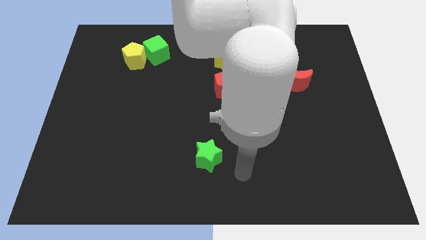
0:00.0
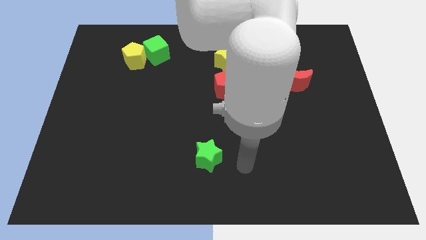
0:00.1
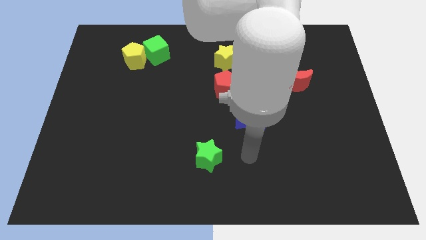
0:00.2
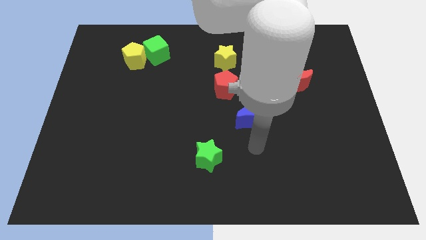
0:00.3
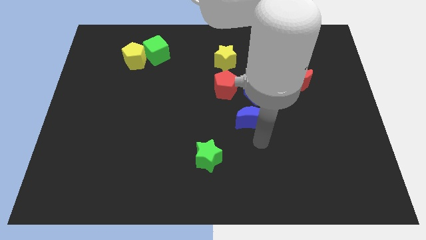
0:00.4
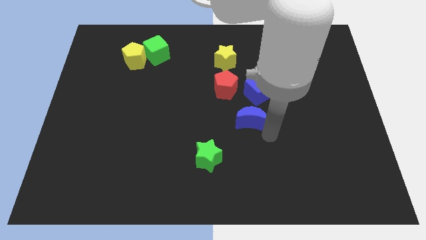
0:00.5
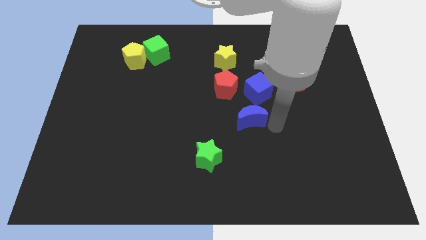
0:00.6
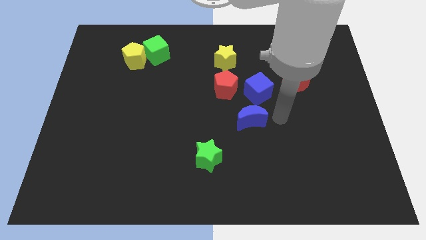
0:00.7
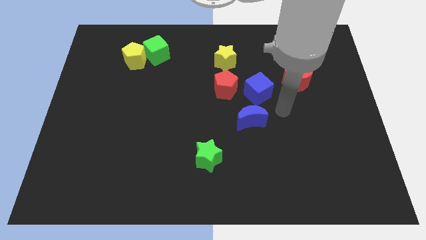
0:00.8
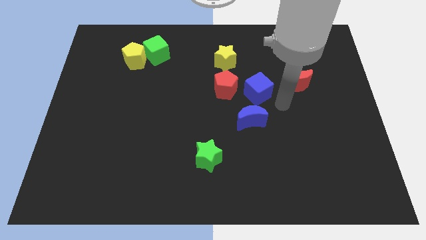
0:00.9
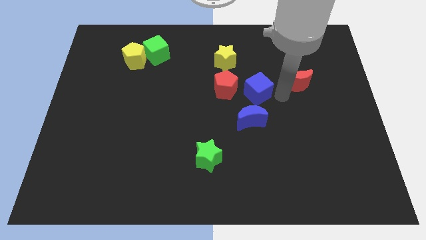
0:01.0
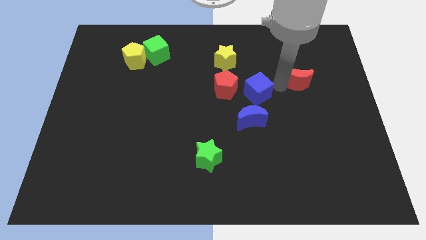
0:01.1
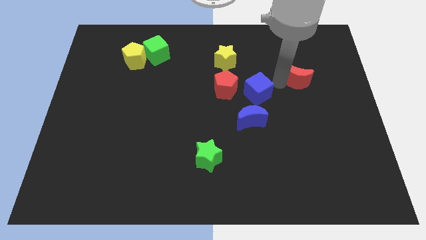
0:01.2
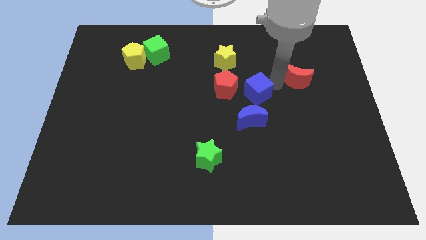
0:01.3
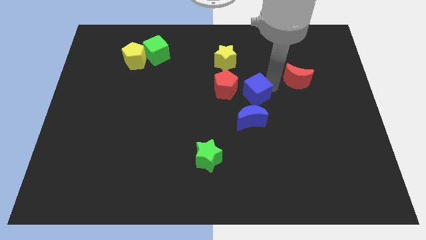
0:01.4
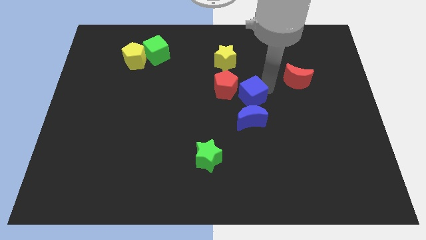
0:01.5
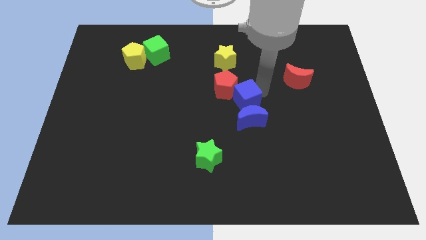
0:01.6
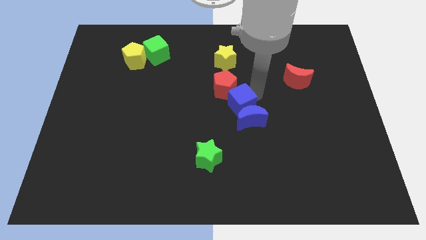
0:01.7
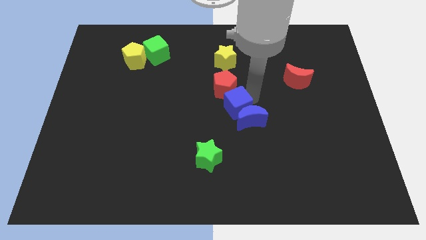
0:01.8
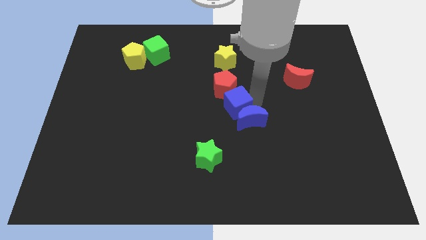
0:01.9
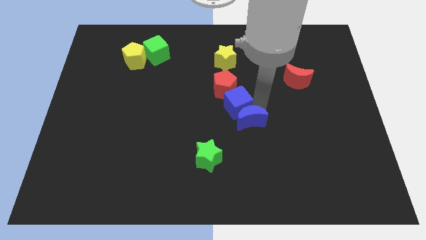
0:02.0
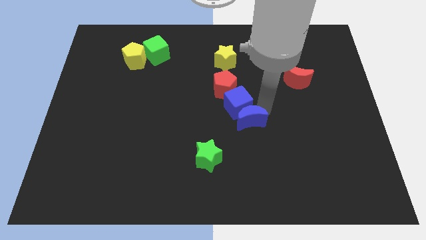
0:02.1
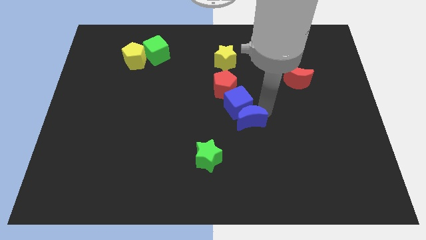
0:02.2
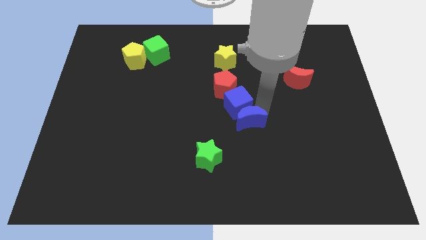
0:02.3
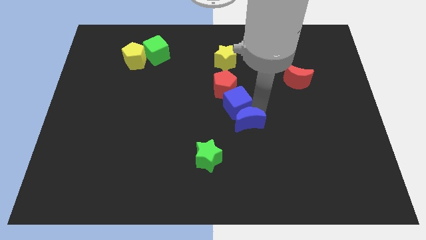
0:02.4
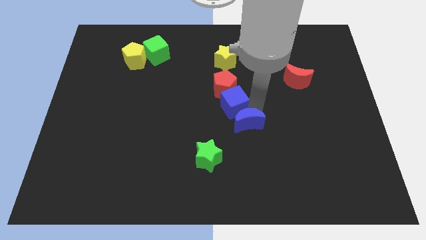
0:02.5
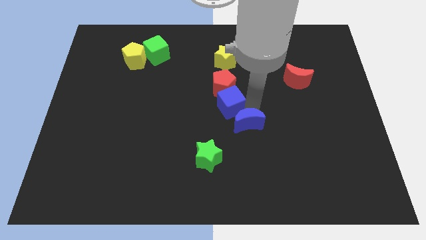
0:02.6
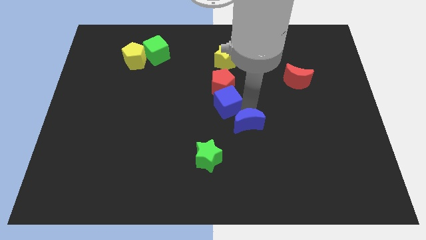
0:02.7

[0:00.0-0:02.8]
slightly push the blue cube left

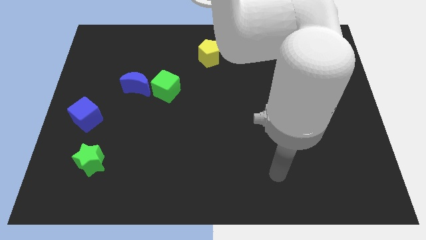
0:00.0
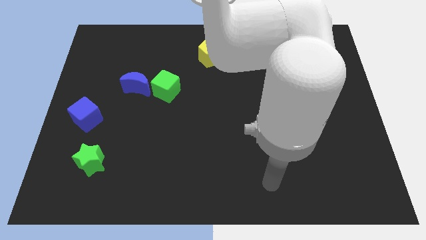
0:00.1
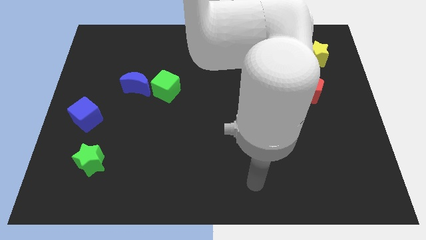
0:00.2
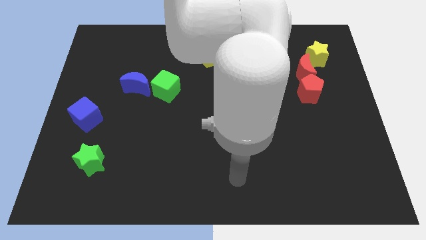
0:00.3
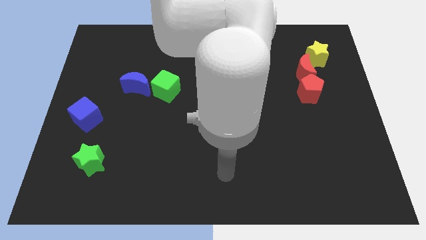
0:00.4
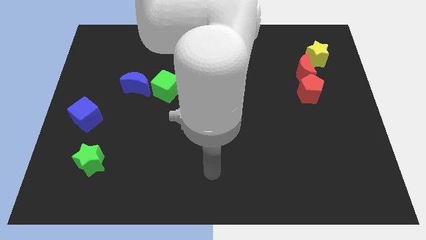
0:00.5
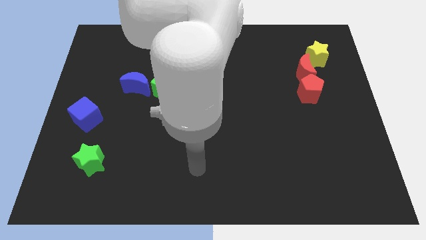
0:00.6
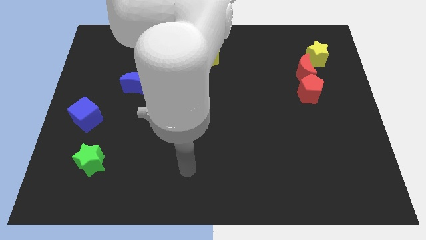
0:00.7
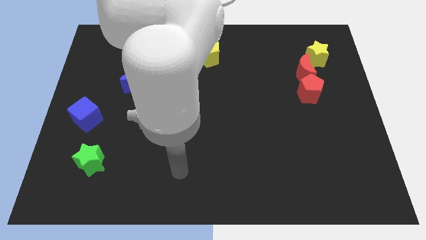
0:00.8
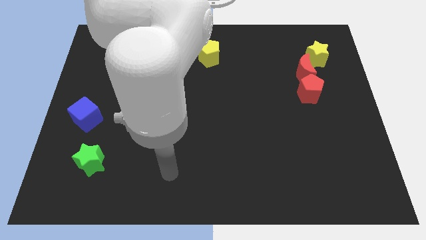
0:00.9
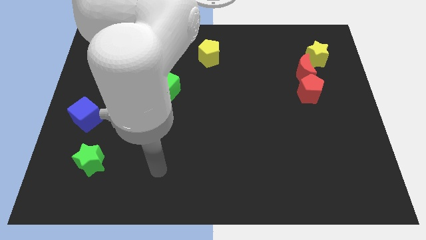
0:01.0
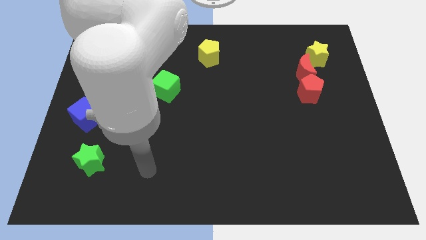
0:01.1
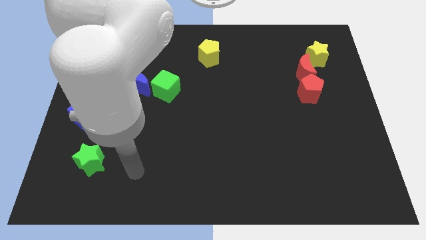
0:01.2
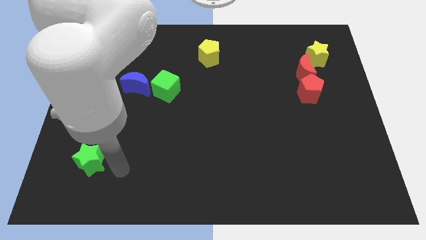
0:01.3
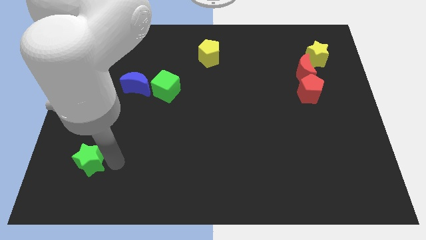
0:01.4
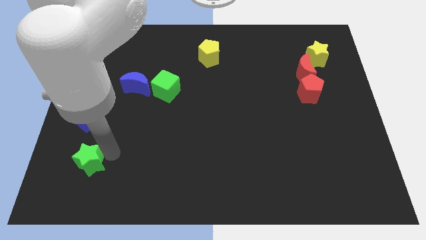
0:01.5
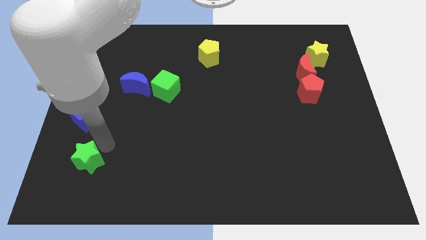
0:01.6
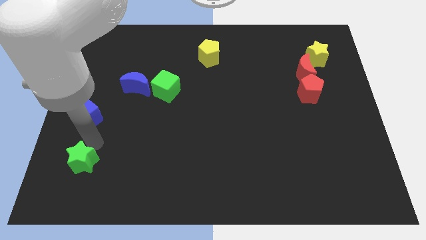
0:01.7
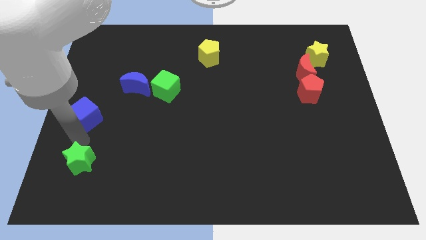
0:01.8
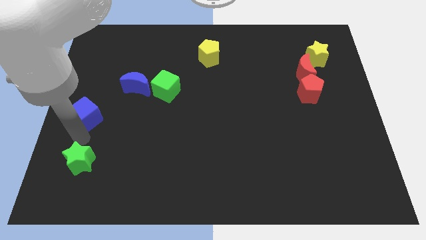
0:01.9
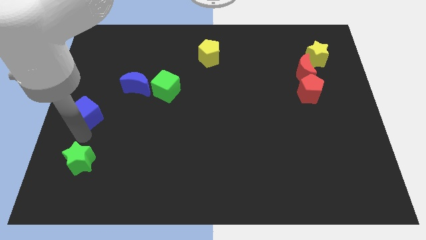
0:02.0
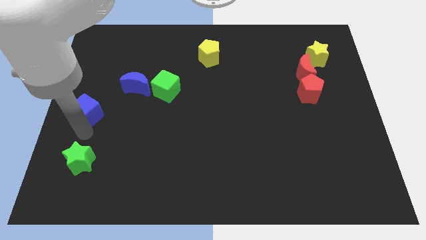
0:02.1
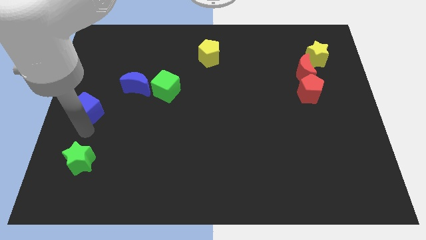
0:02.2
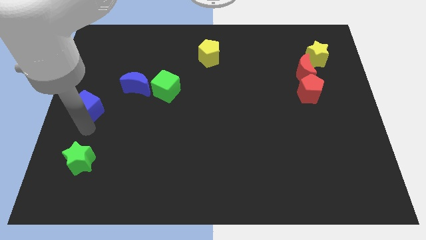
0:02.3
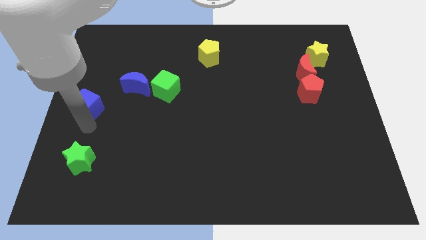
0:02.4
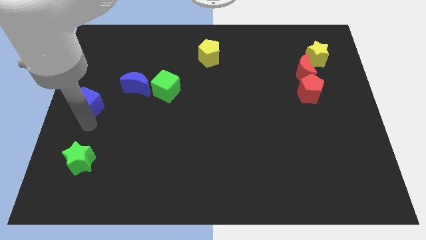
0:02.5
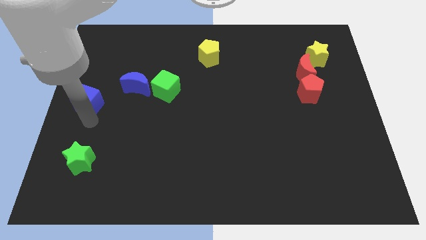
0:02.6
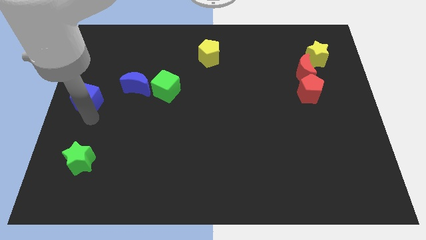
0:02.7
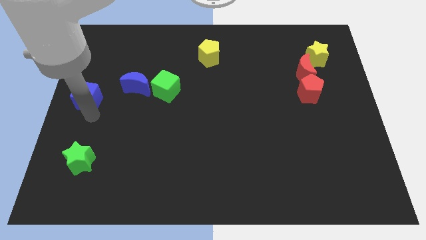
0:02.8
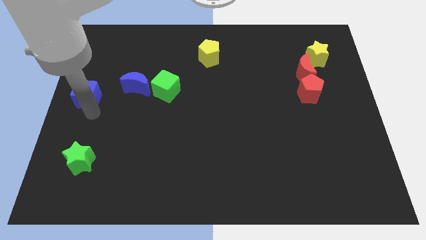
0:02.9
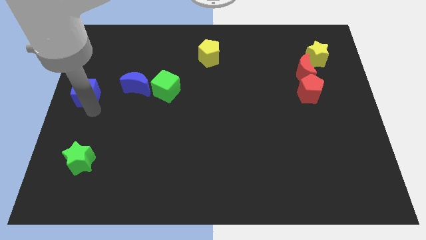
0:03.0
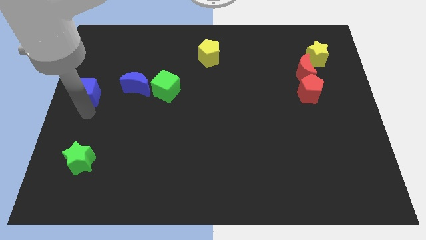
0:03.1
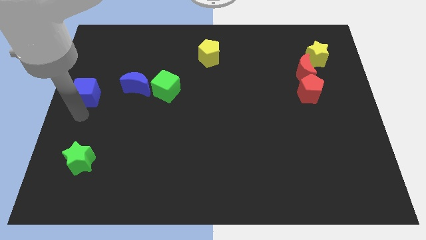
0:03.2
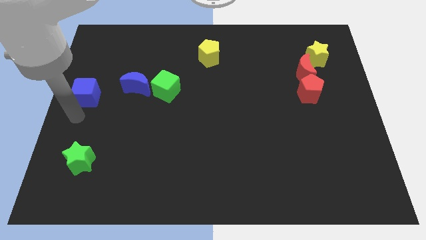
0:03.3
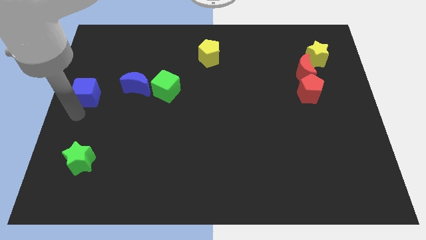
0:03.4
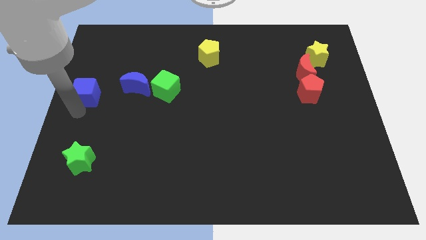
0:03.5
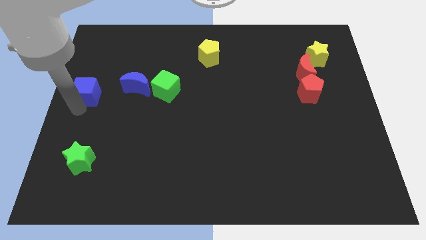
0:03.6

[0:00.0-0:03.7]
slightly push the blue cube up

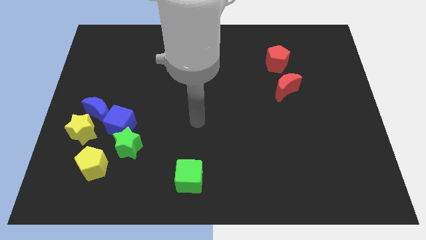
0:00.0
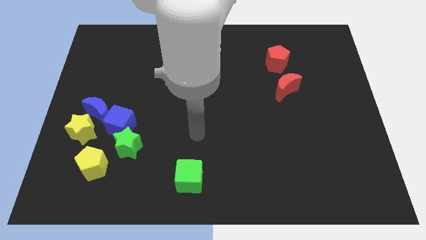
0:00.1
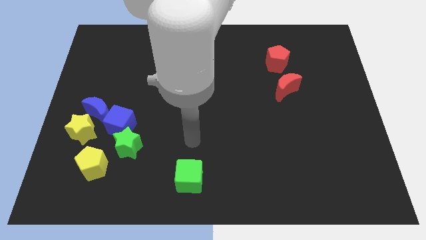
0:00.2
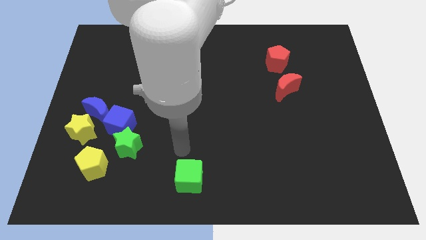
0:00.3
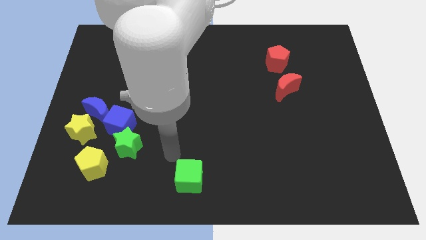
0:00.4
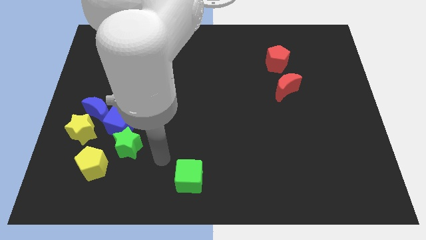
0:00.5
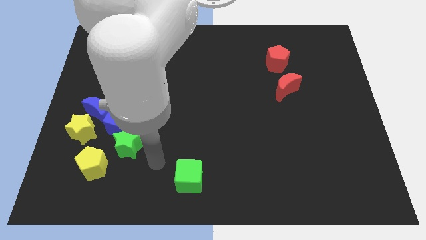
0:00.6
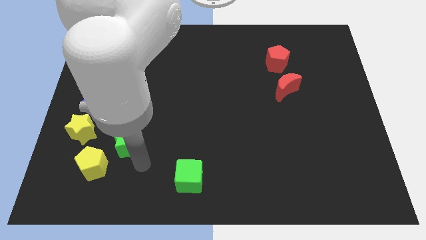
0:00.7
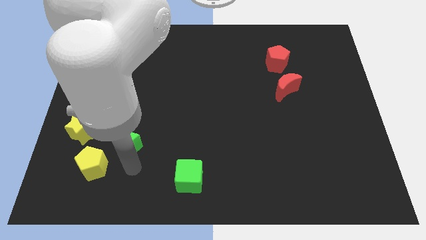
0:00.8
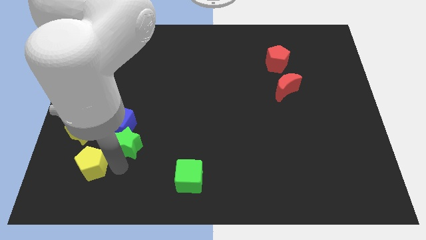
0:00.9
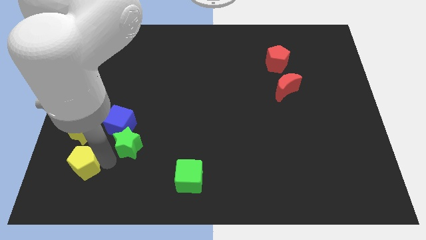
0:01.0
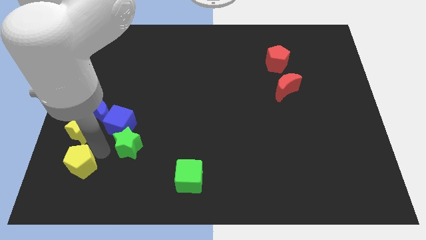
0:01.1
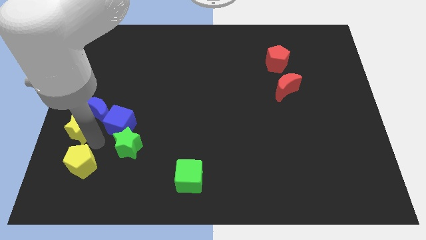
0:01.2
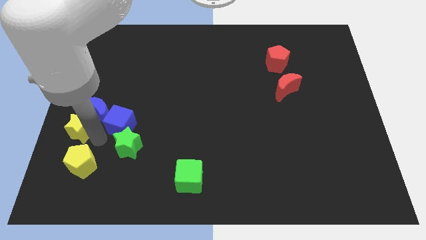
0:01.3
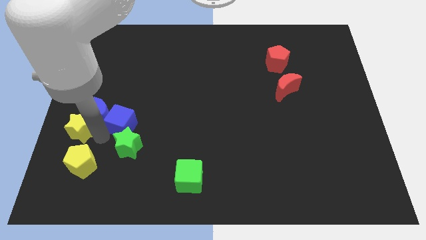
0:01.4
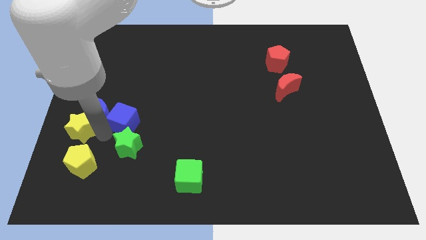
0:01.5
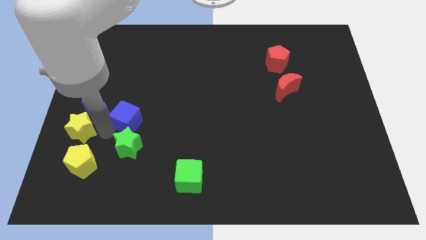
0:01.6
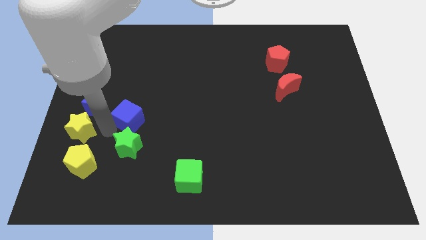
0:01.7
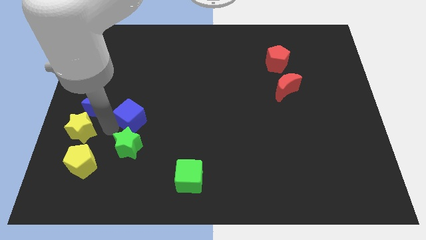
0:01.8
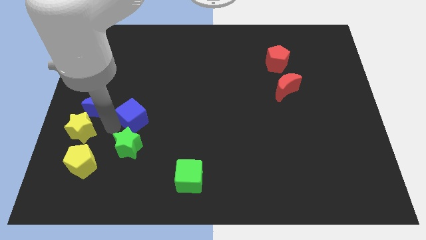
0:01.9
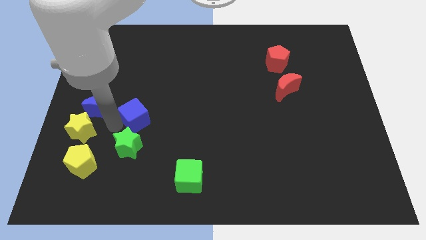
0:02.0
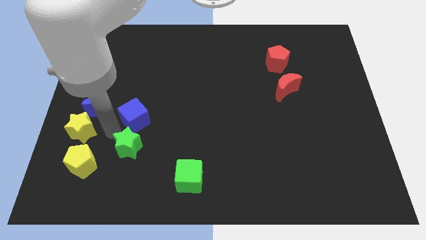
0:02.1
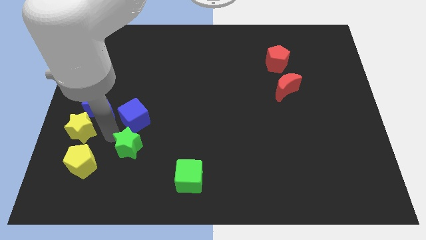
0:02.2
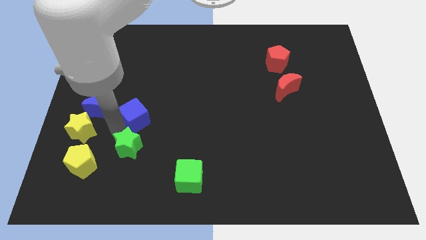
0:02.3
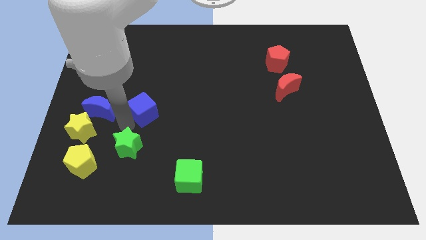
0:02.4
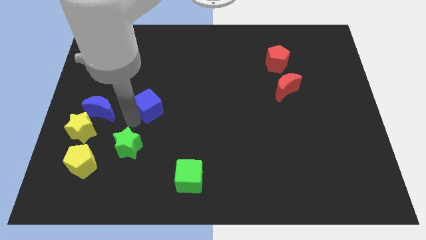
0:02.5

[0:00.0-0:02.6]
move the blue cube up and to the right a little
